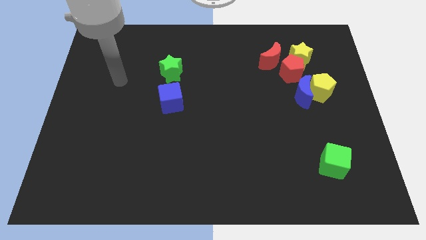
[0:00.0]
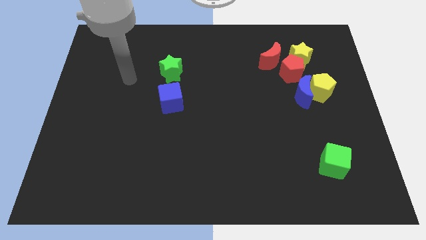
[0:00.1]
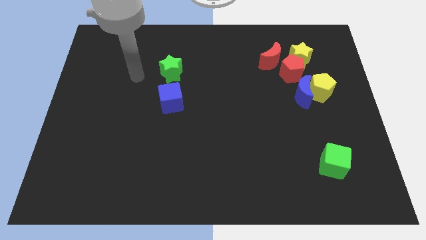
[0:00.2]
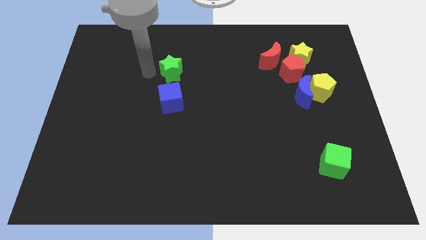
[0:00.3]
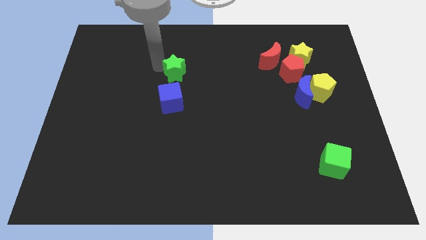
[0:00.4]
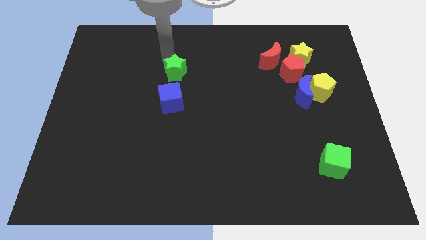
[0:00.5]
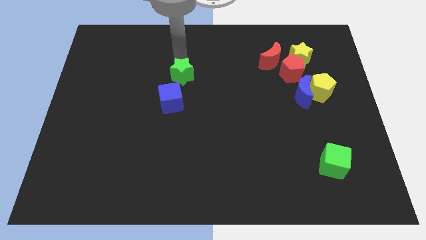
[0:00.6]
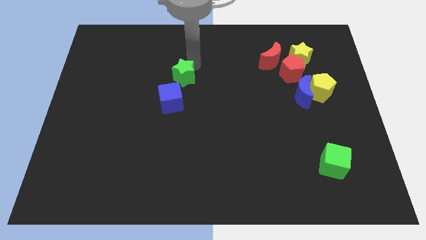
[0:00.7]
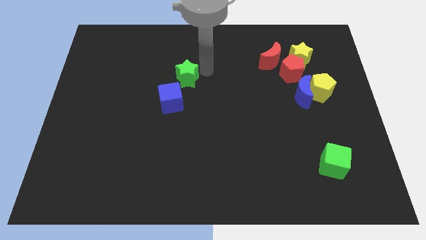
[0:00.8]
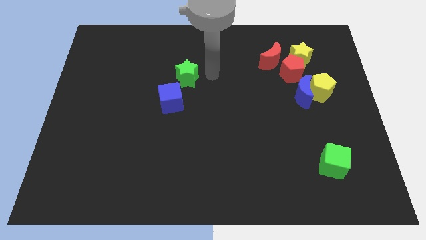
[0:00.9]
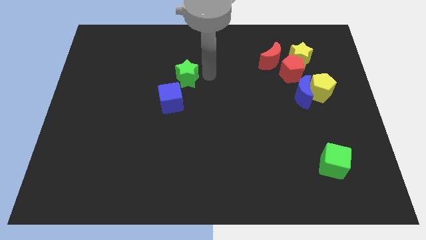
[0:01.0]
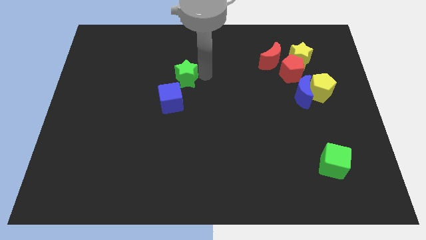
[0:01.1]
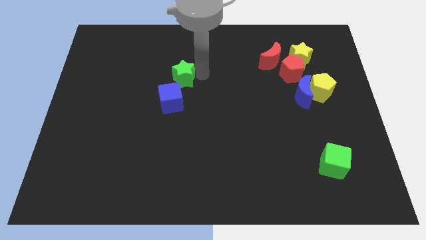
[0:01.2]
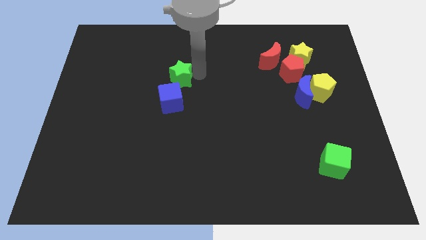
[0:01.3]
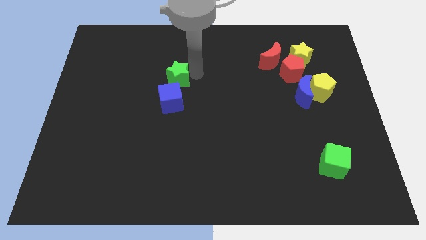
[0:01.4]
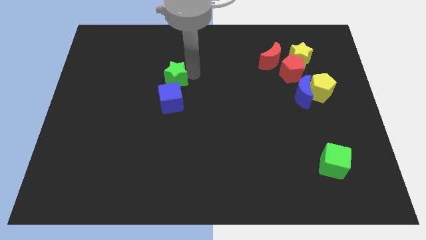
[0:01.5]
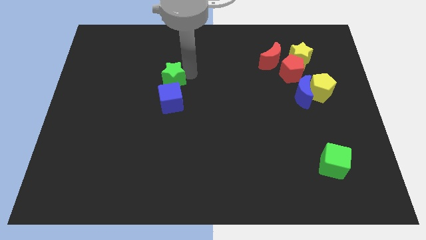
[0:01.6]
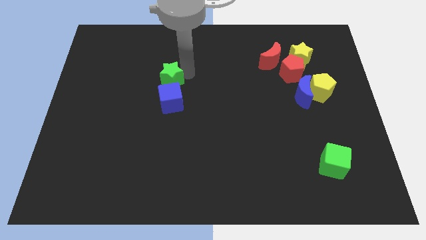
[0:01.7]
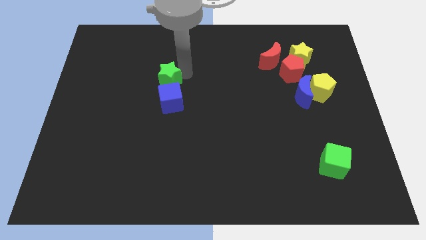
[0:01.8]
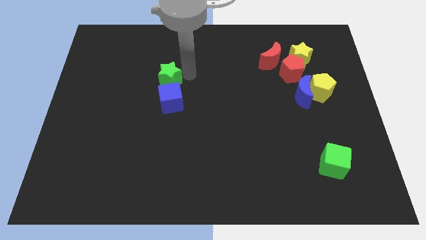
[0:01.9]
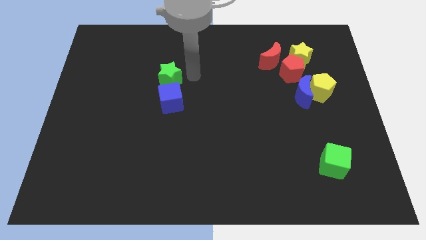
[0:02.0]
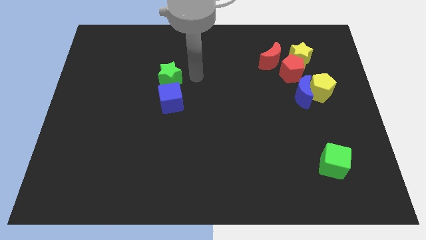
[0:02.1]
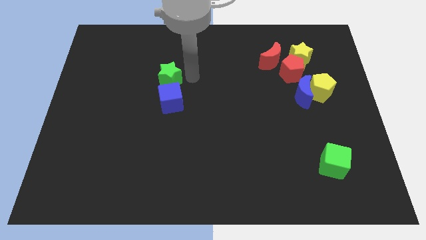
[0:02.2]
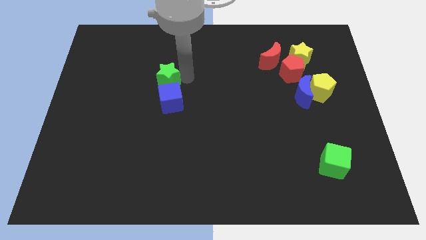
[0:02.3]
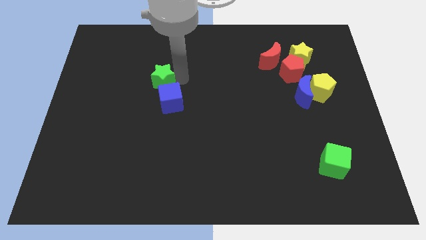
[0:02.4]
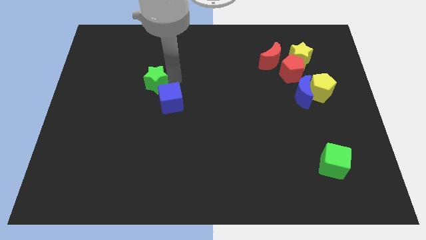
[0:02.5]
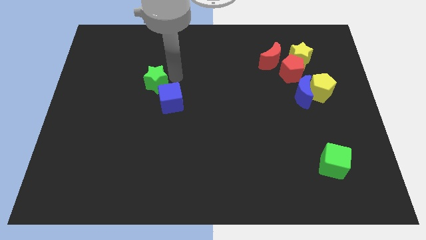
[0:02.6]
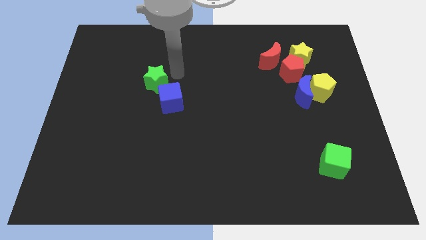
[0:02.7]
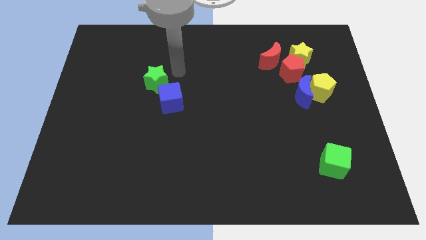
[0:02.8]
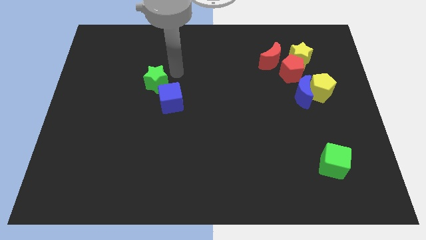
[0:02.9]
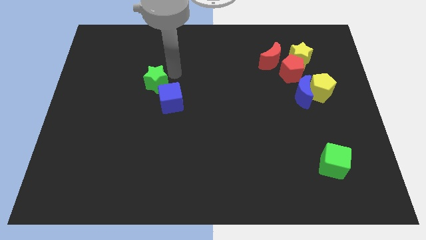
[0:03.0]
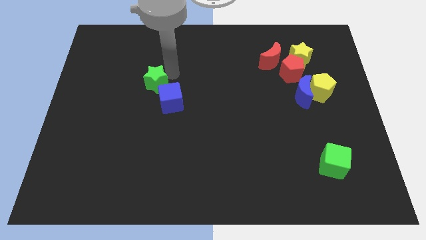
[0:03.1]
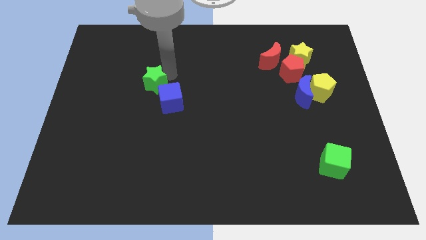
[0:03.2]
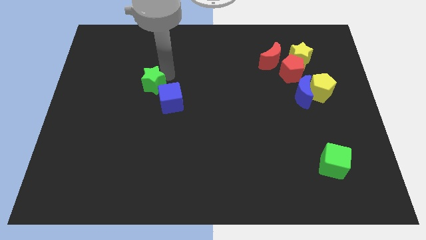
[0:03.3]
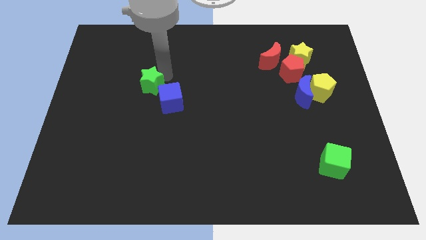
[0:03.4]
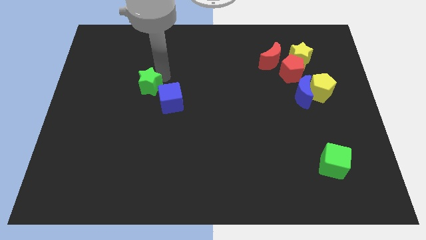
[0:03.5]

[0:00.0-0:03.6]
move the green star down and to the left a little bit

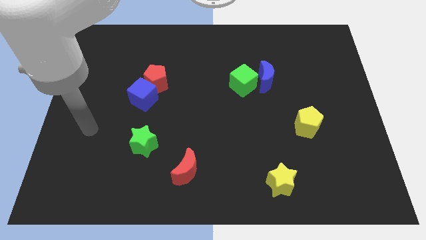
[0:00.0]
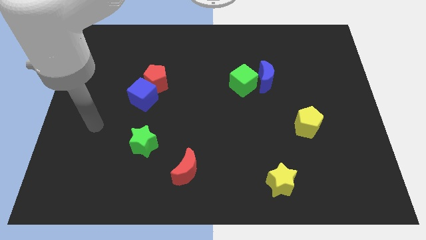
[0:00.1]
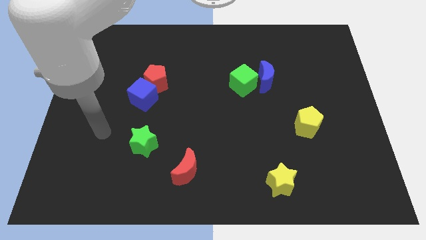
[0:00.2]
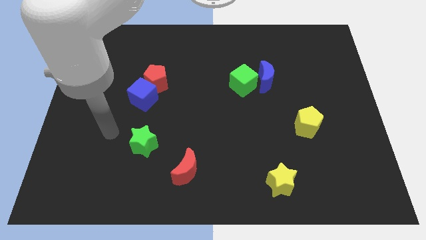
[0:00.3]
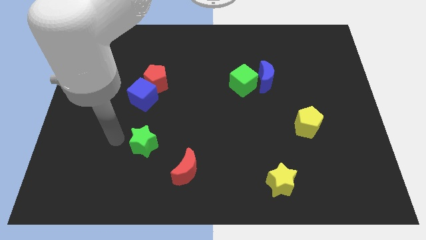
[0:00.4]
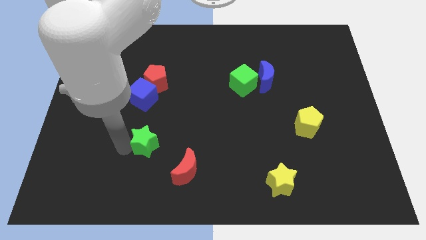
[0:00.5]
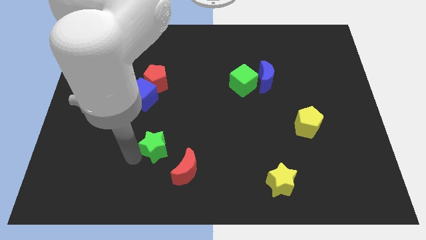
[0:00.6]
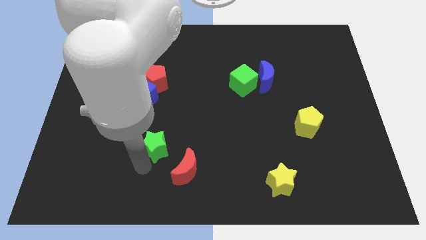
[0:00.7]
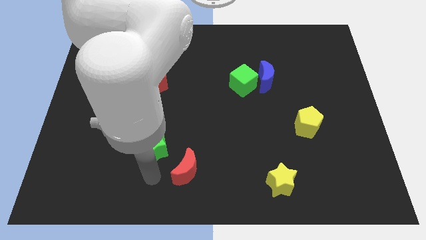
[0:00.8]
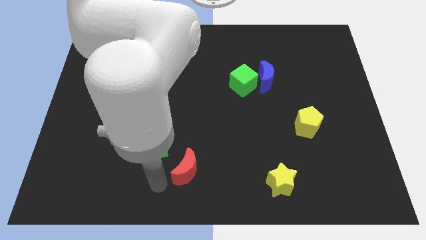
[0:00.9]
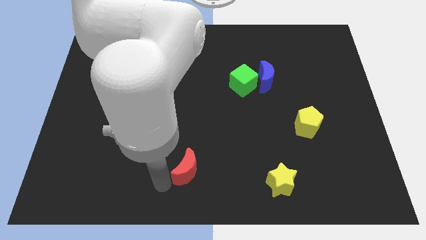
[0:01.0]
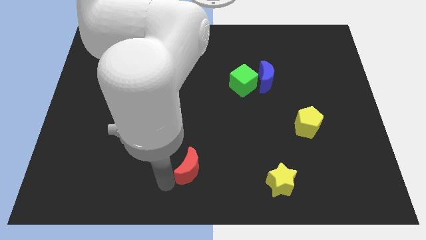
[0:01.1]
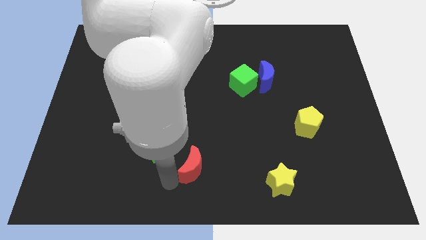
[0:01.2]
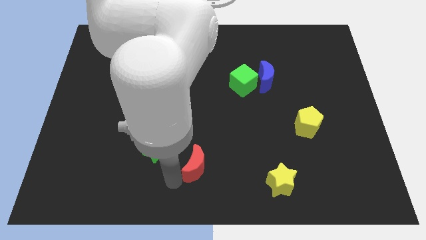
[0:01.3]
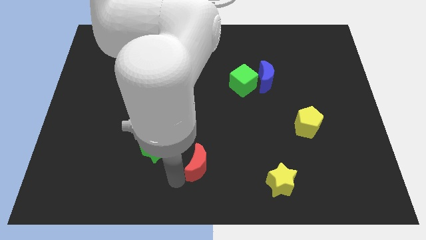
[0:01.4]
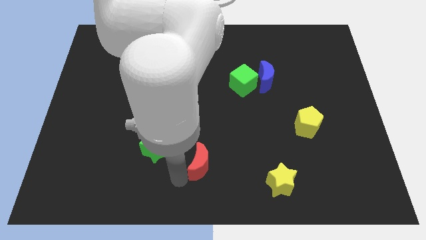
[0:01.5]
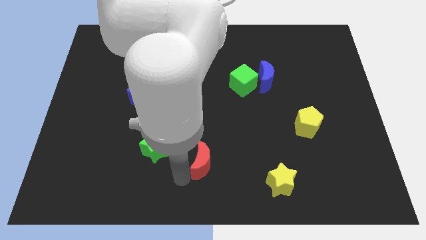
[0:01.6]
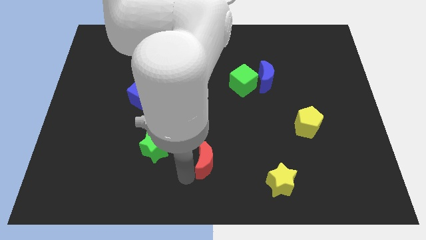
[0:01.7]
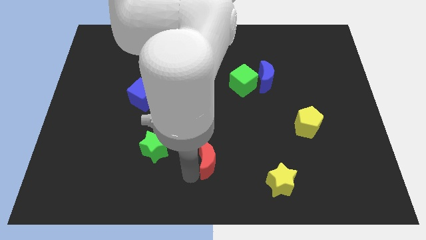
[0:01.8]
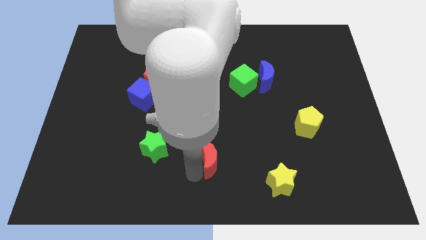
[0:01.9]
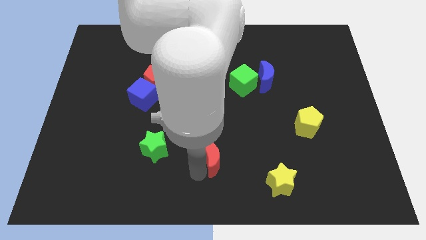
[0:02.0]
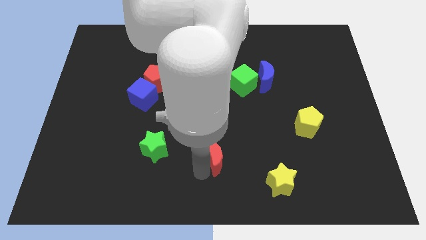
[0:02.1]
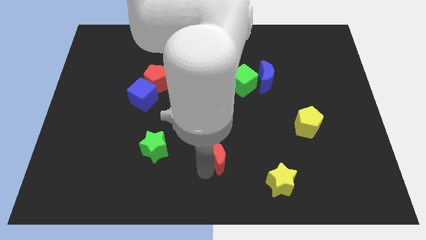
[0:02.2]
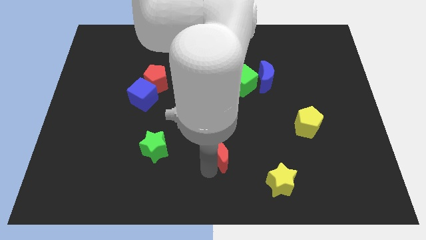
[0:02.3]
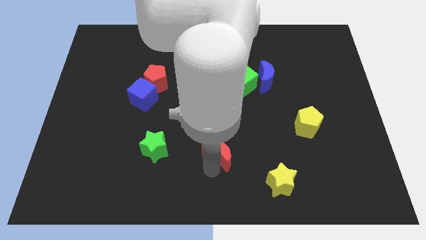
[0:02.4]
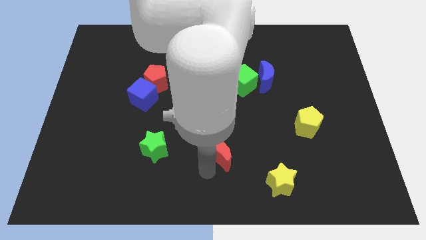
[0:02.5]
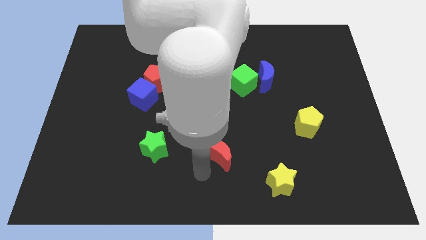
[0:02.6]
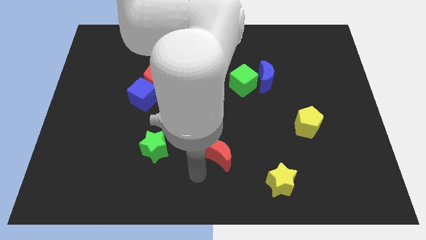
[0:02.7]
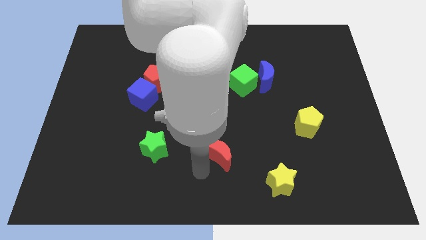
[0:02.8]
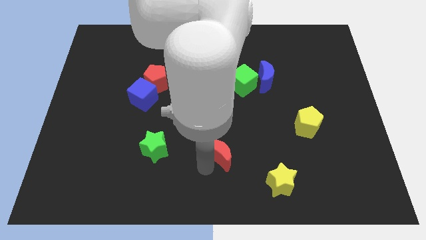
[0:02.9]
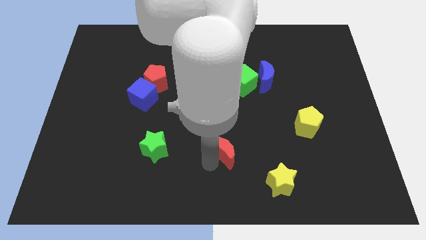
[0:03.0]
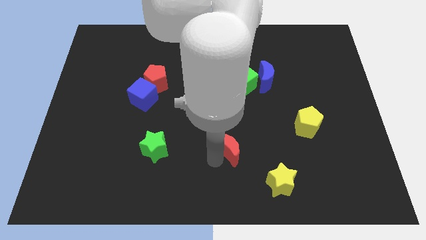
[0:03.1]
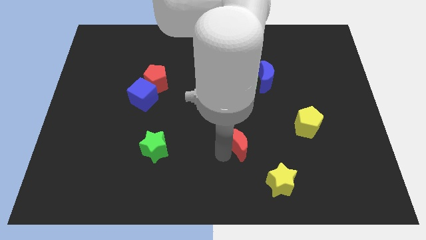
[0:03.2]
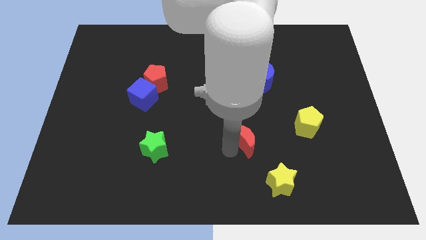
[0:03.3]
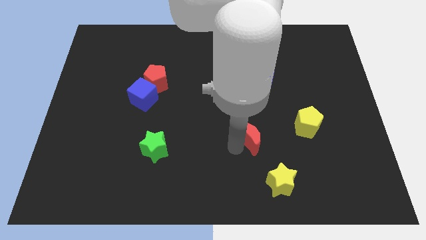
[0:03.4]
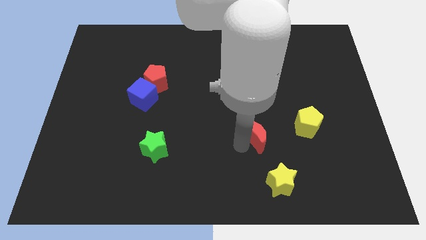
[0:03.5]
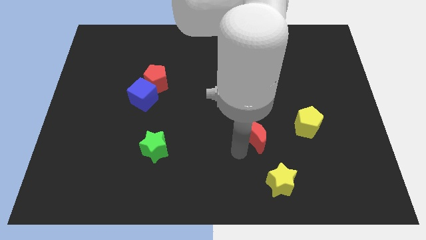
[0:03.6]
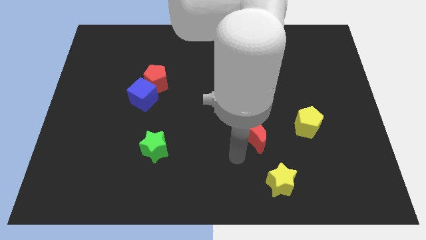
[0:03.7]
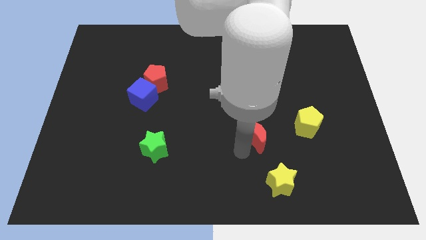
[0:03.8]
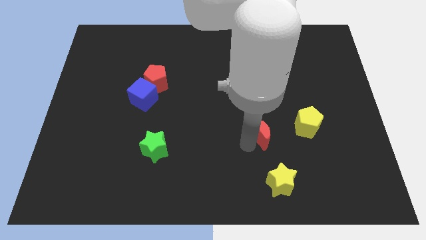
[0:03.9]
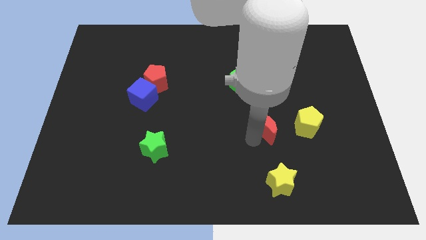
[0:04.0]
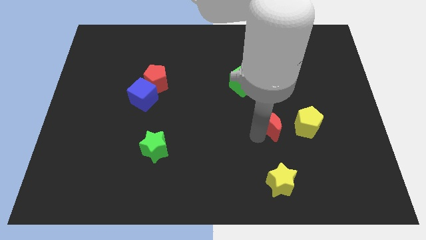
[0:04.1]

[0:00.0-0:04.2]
push the red moon diagonally upwards and to the right

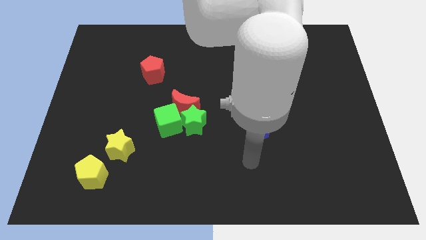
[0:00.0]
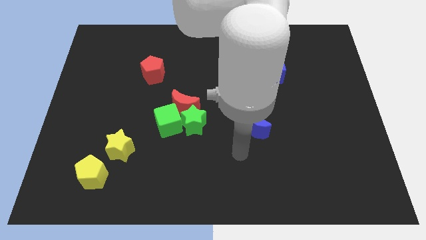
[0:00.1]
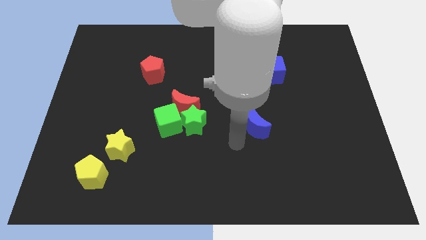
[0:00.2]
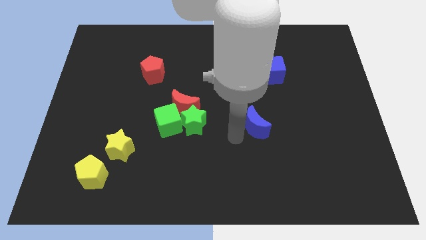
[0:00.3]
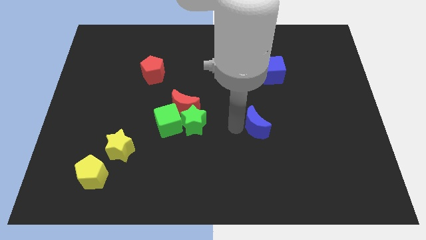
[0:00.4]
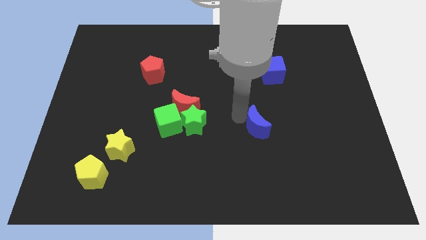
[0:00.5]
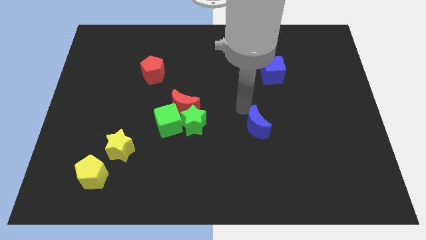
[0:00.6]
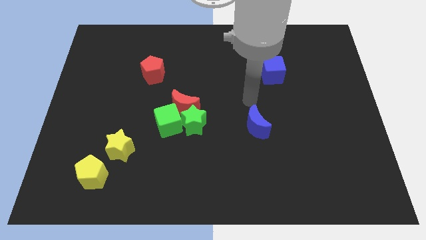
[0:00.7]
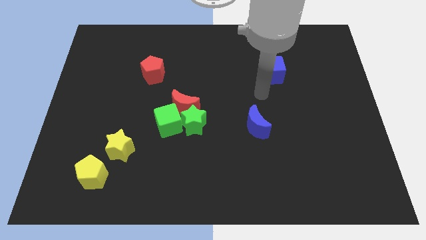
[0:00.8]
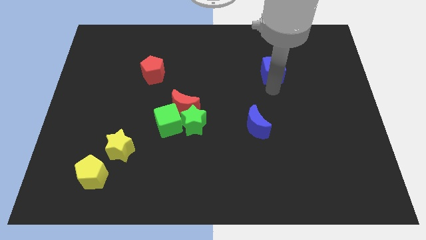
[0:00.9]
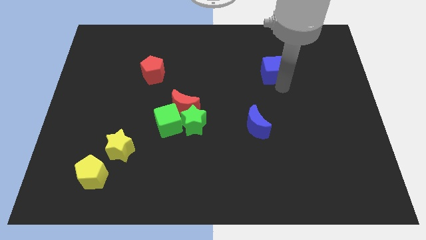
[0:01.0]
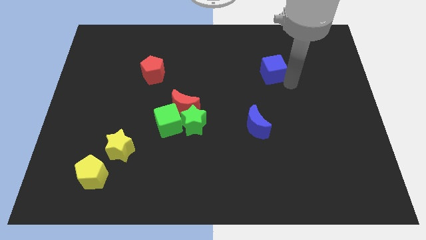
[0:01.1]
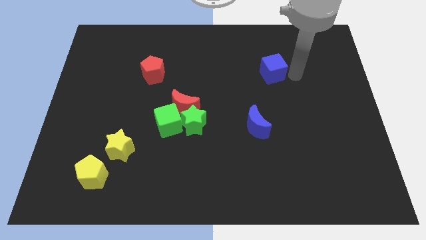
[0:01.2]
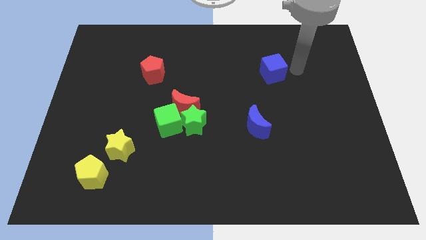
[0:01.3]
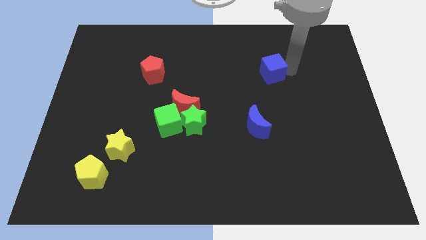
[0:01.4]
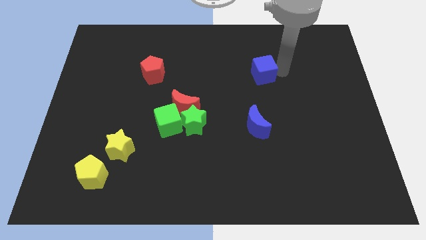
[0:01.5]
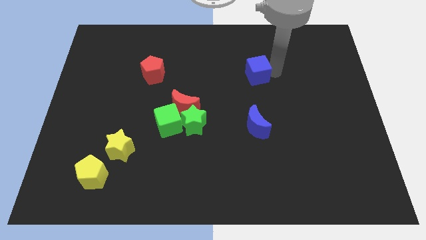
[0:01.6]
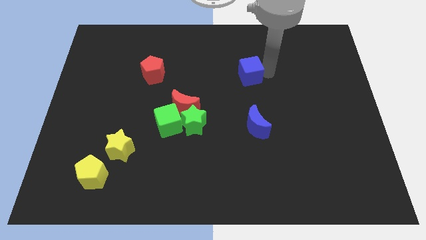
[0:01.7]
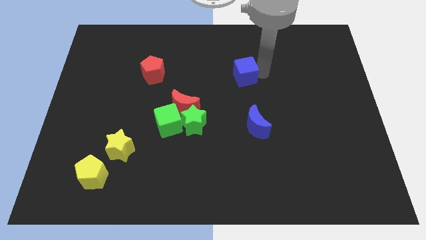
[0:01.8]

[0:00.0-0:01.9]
slide the blue cube somewhat to the left
